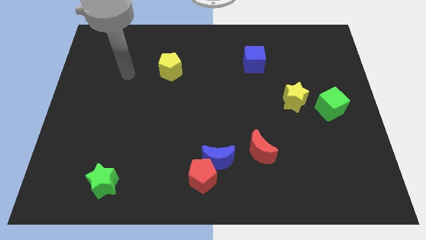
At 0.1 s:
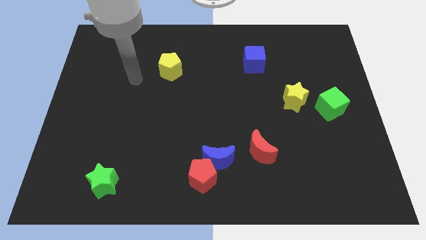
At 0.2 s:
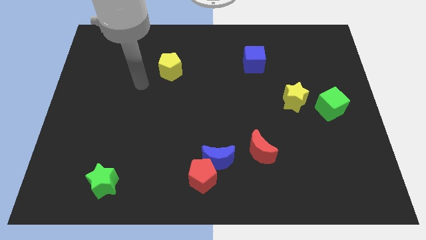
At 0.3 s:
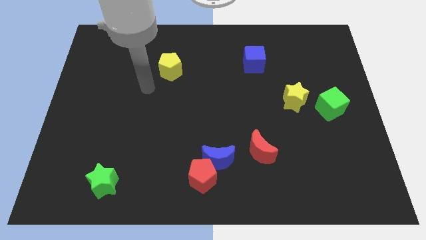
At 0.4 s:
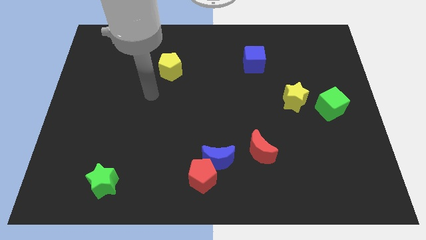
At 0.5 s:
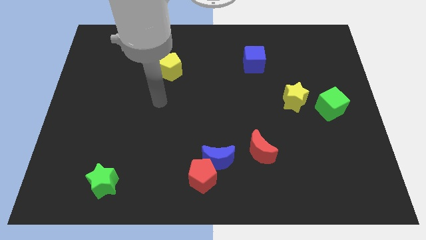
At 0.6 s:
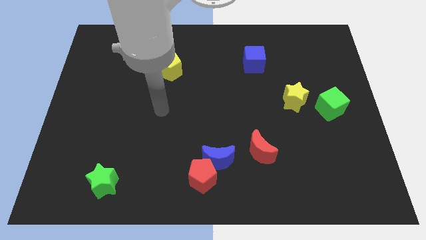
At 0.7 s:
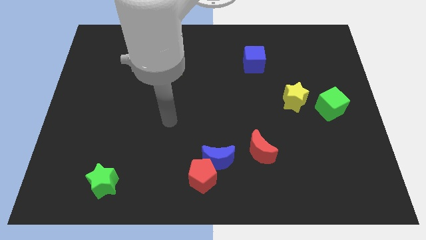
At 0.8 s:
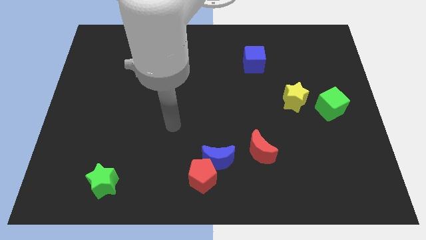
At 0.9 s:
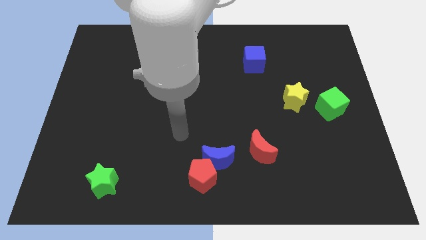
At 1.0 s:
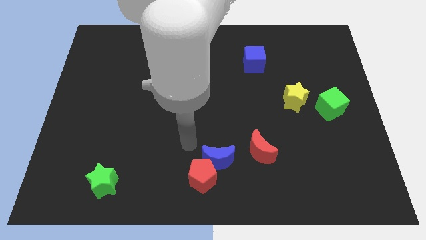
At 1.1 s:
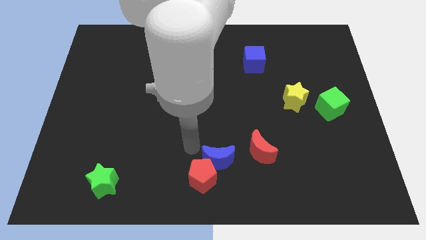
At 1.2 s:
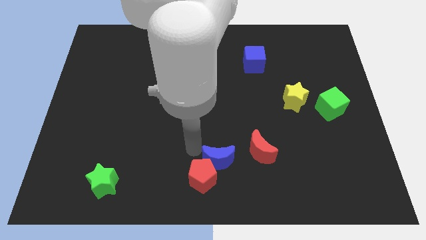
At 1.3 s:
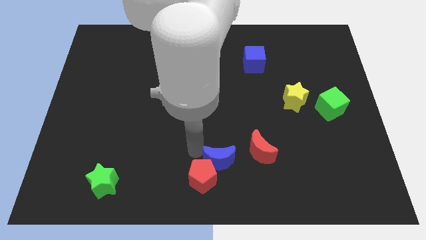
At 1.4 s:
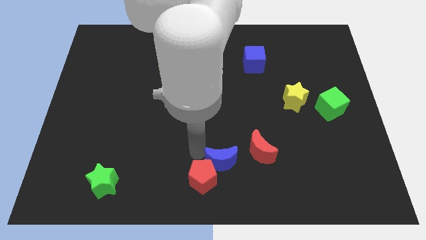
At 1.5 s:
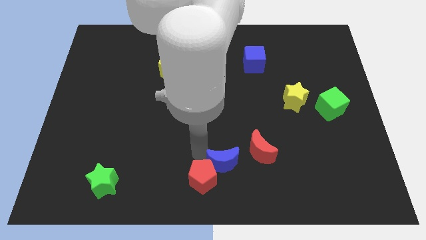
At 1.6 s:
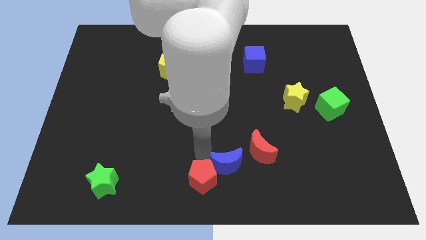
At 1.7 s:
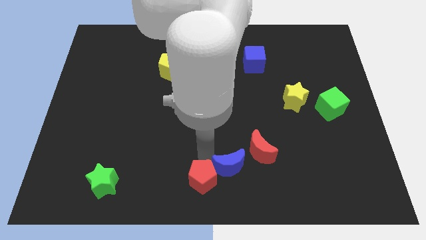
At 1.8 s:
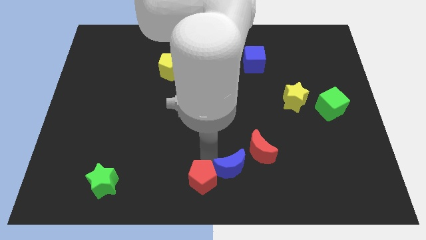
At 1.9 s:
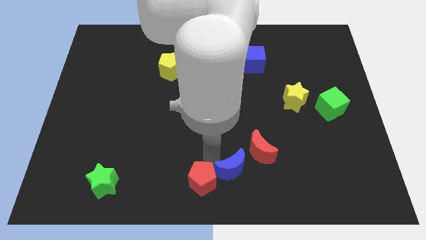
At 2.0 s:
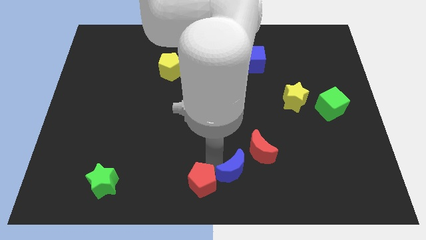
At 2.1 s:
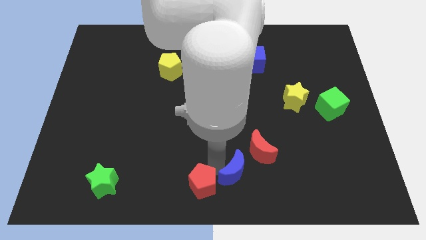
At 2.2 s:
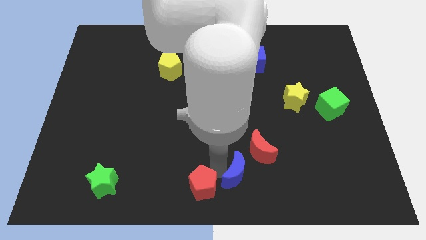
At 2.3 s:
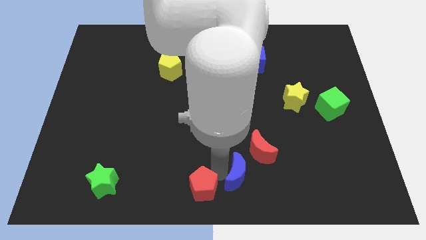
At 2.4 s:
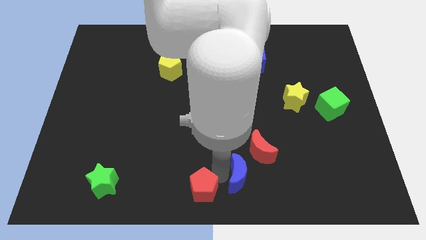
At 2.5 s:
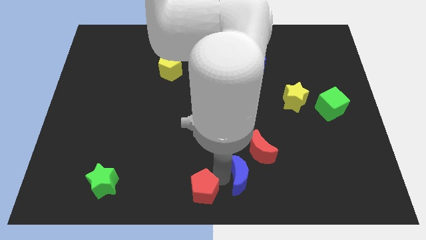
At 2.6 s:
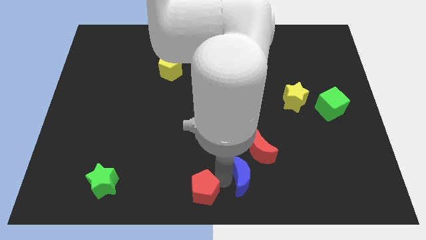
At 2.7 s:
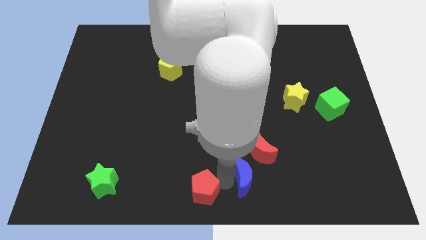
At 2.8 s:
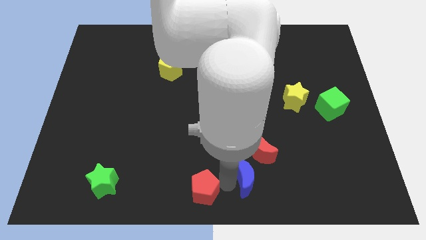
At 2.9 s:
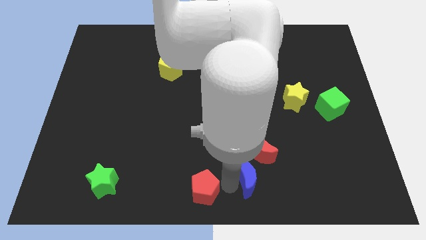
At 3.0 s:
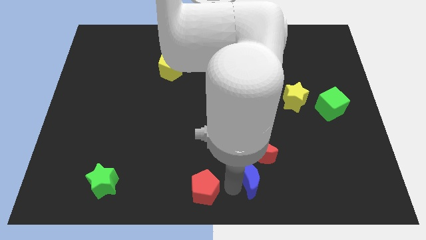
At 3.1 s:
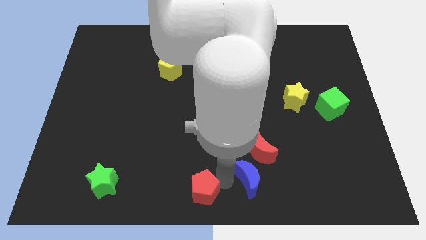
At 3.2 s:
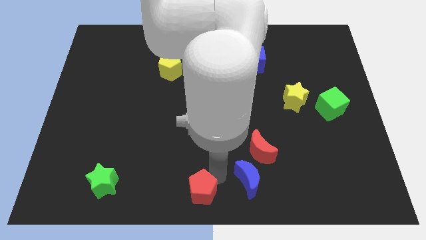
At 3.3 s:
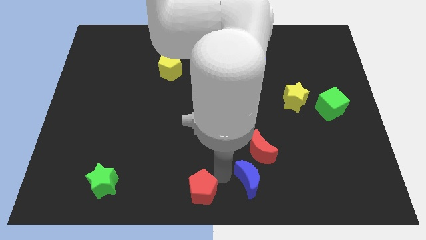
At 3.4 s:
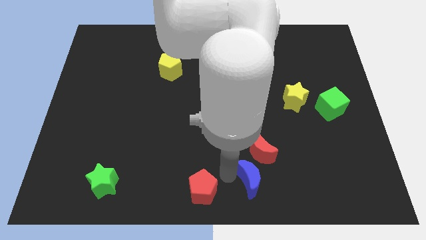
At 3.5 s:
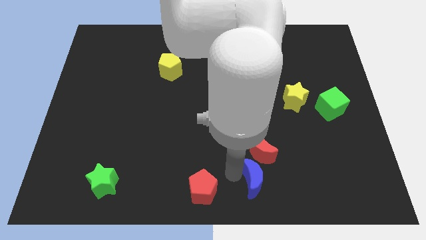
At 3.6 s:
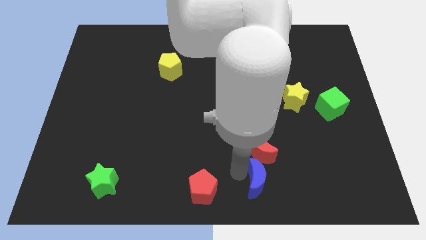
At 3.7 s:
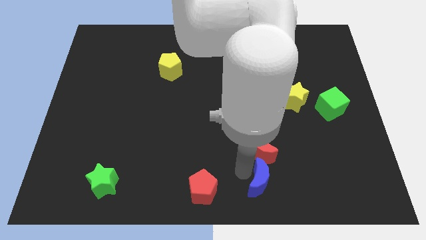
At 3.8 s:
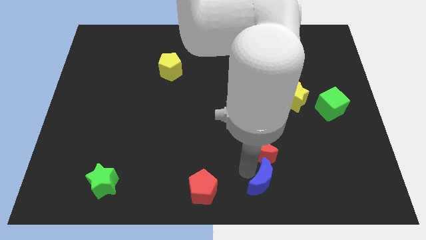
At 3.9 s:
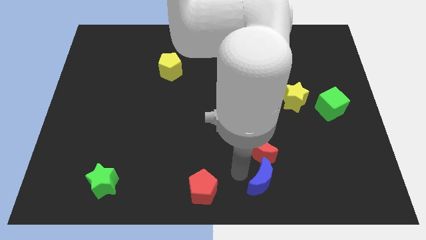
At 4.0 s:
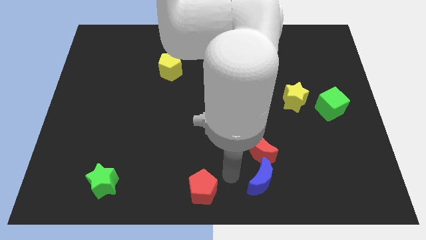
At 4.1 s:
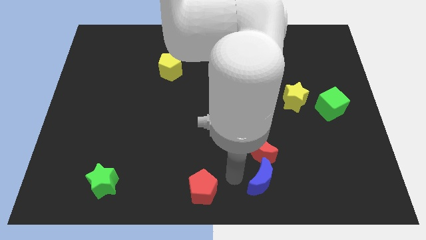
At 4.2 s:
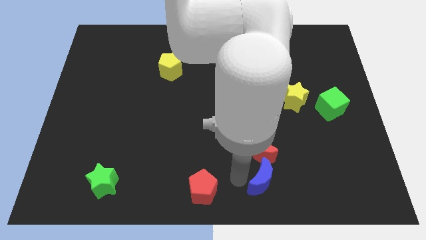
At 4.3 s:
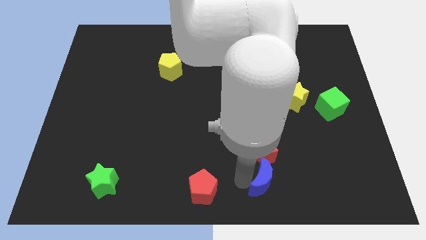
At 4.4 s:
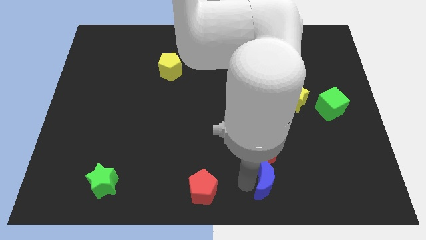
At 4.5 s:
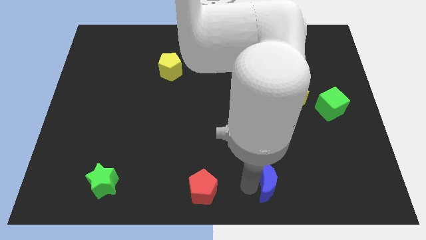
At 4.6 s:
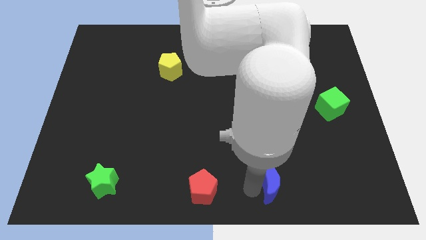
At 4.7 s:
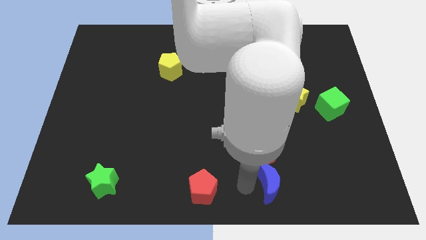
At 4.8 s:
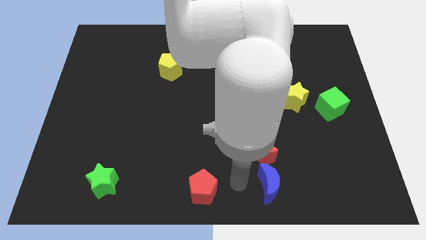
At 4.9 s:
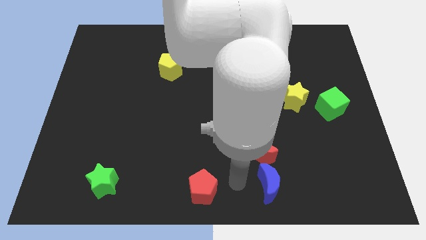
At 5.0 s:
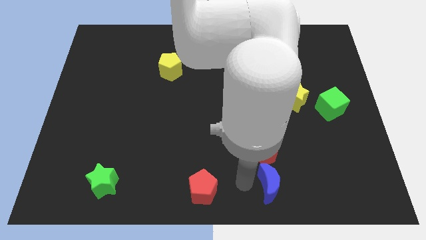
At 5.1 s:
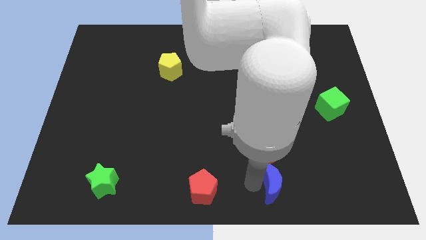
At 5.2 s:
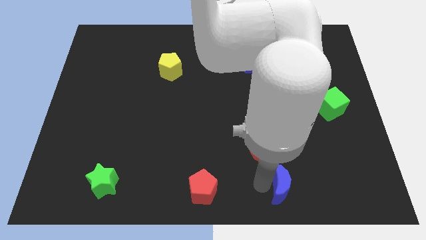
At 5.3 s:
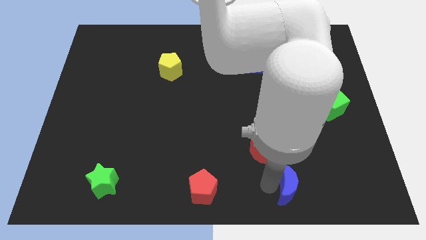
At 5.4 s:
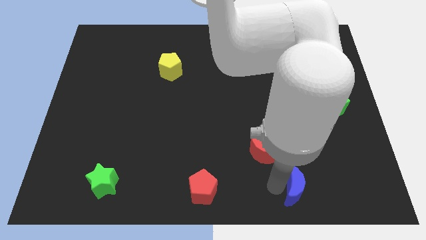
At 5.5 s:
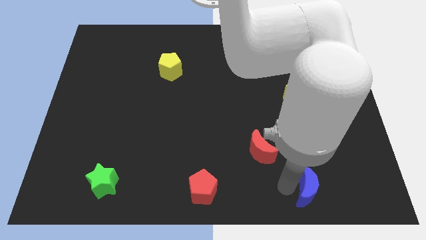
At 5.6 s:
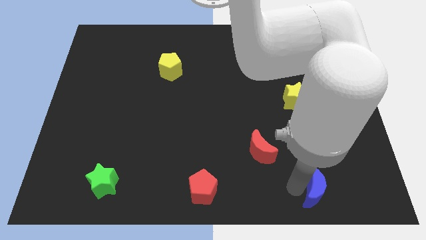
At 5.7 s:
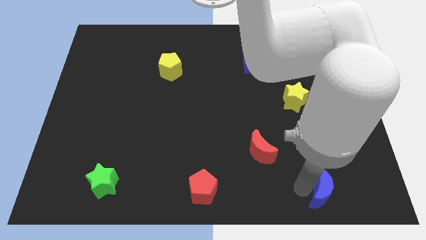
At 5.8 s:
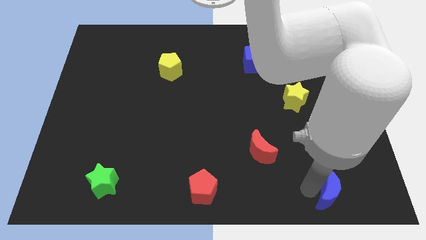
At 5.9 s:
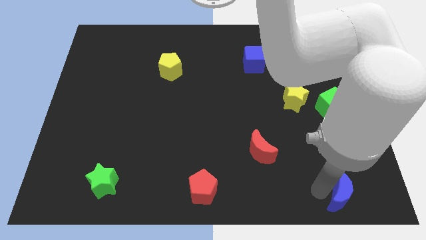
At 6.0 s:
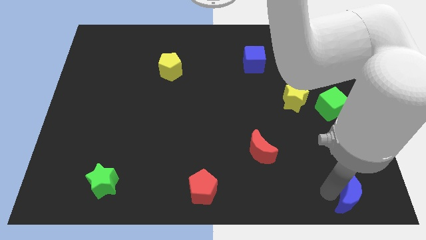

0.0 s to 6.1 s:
put the blue moon to the bottom right
